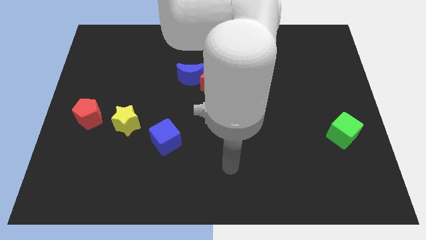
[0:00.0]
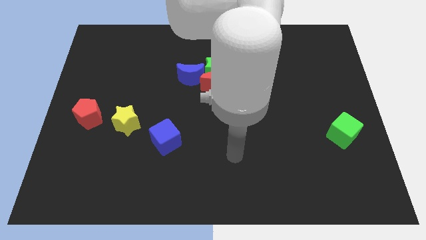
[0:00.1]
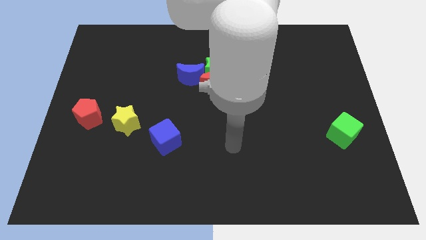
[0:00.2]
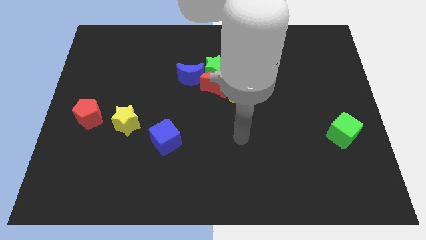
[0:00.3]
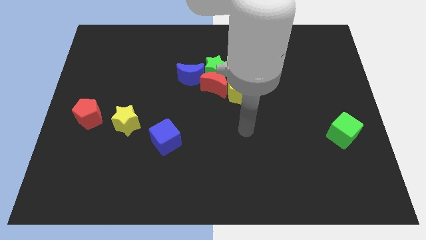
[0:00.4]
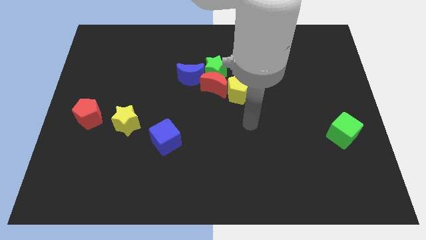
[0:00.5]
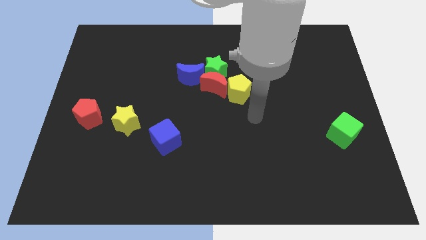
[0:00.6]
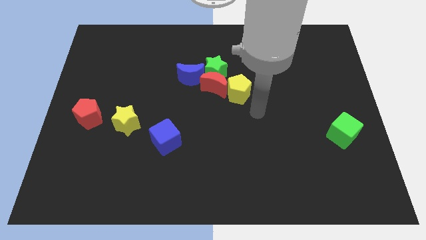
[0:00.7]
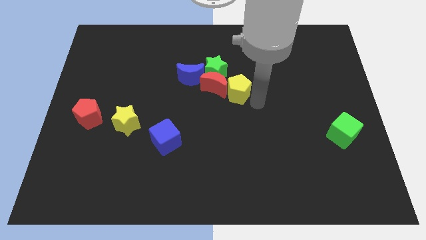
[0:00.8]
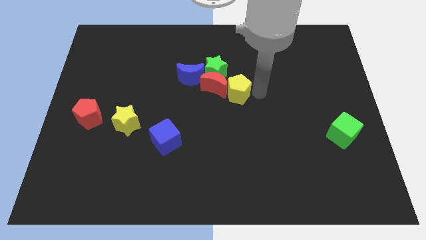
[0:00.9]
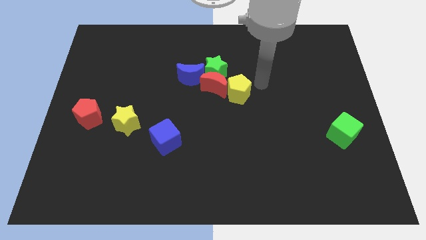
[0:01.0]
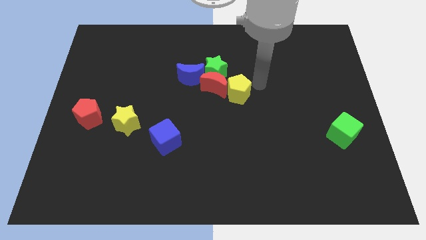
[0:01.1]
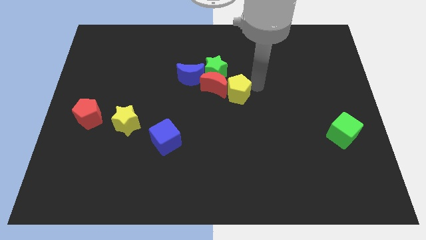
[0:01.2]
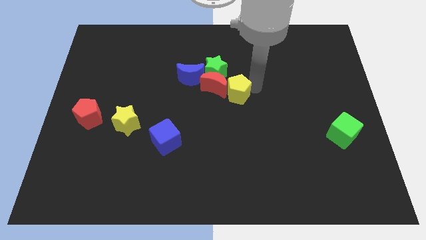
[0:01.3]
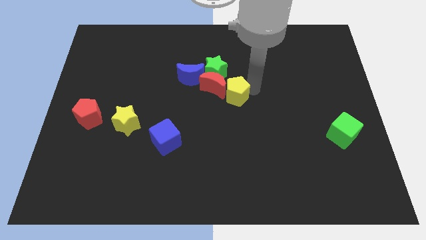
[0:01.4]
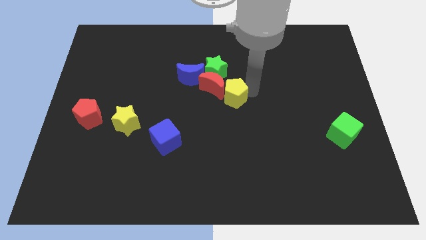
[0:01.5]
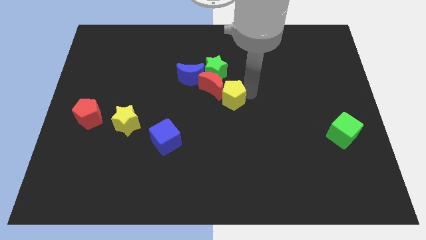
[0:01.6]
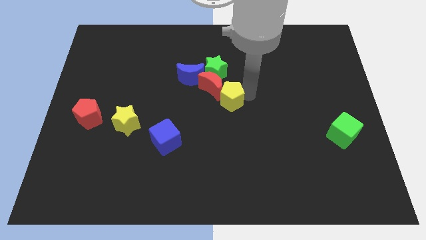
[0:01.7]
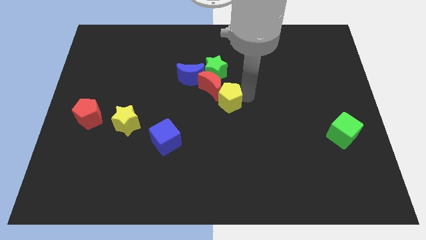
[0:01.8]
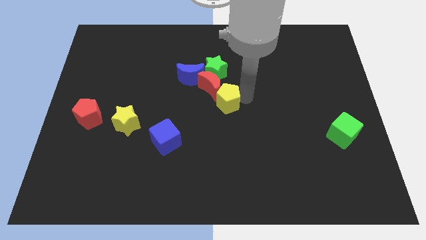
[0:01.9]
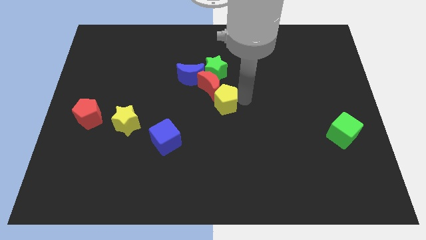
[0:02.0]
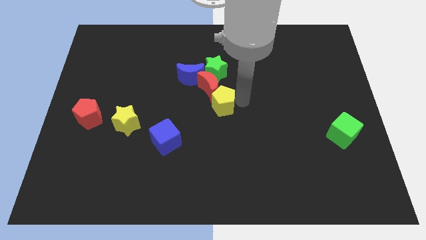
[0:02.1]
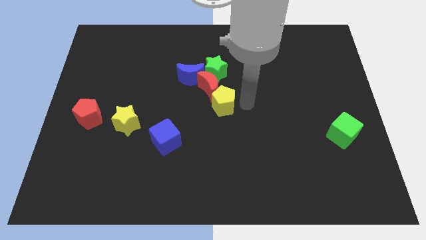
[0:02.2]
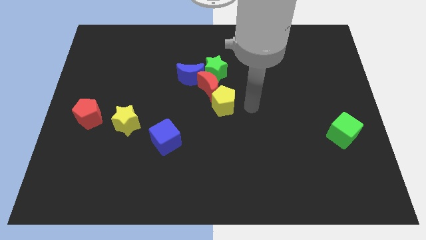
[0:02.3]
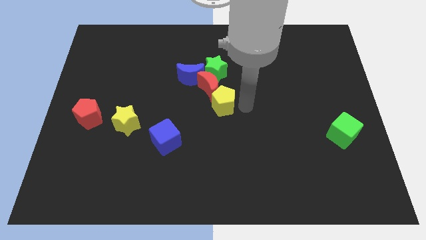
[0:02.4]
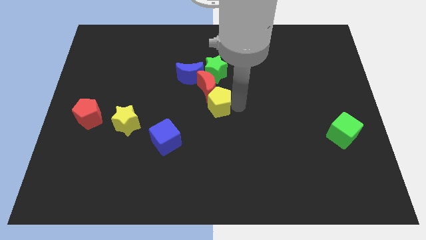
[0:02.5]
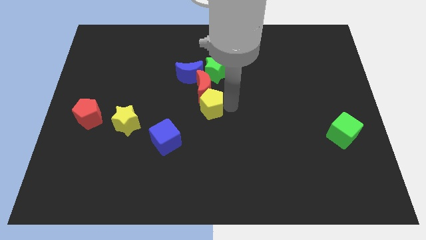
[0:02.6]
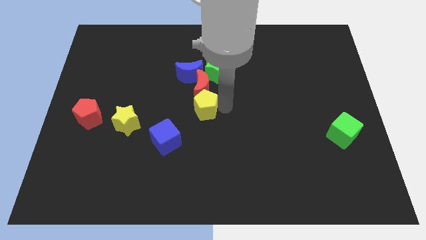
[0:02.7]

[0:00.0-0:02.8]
move the yellow pentagon a little to the left

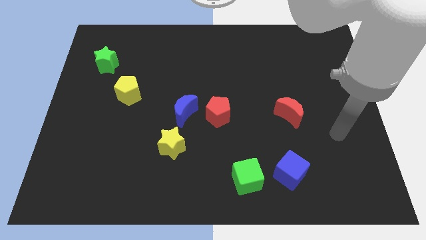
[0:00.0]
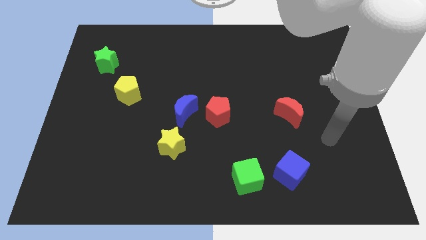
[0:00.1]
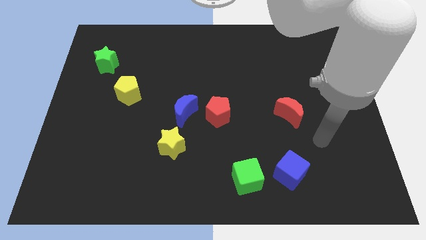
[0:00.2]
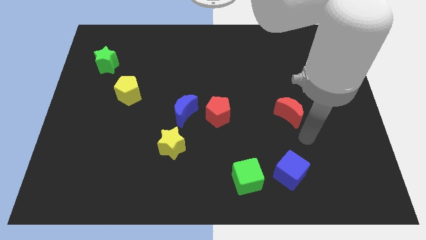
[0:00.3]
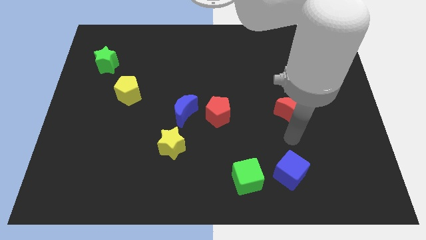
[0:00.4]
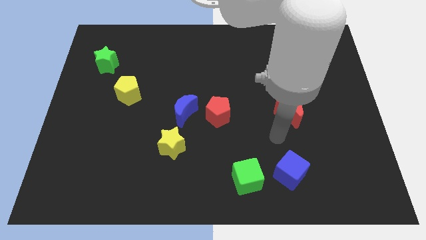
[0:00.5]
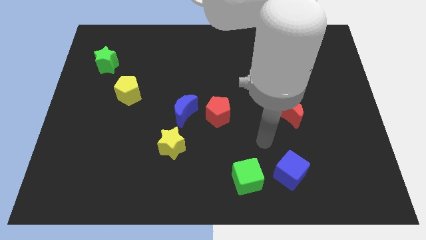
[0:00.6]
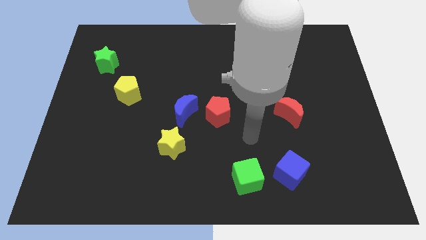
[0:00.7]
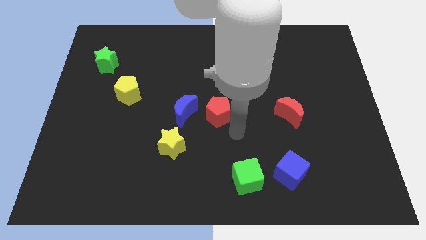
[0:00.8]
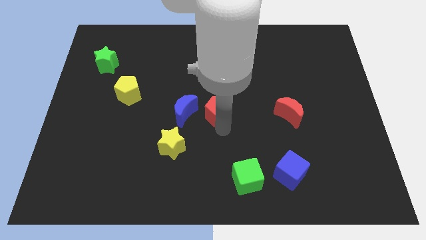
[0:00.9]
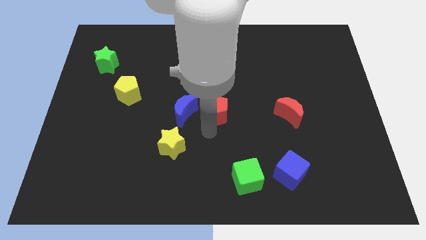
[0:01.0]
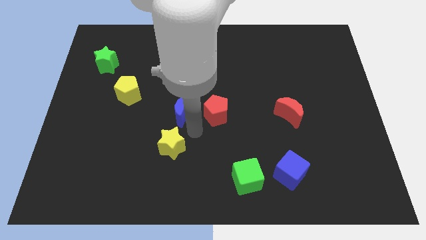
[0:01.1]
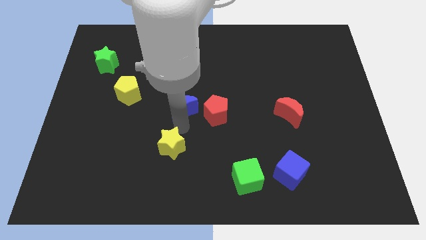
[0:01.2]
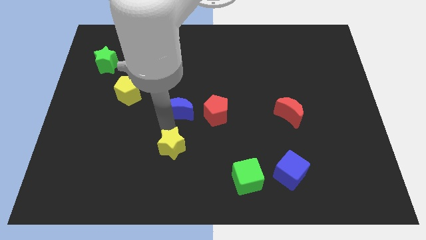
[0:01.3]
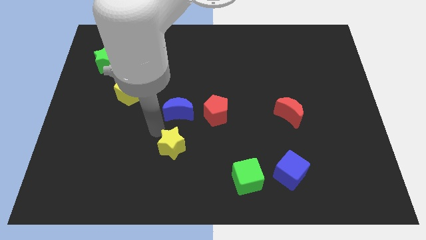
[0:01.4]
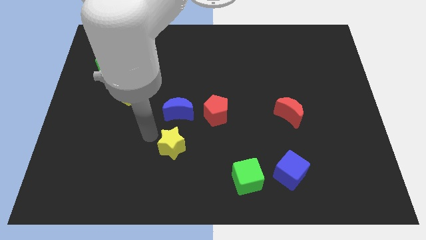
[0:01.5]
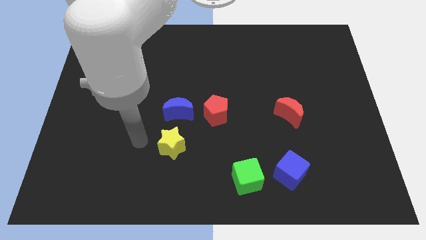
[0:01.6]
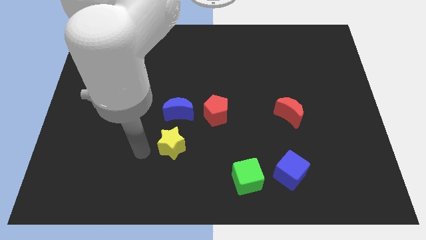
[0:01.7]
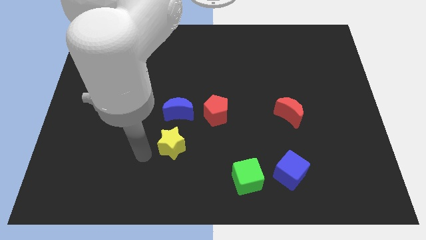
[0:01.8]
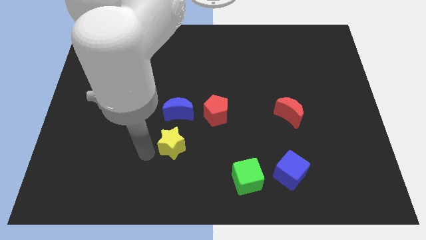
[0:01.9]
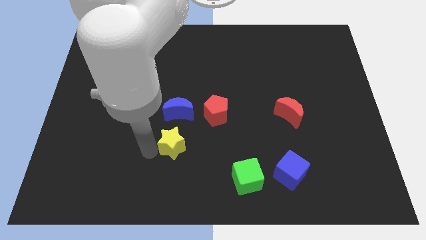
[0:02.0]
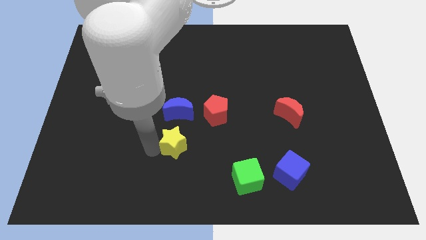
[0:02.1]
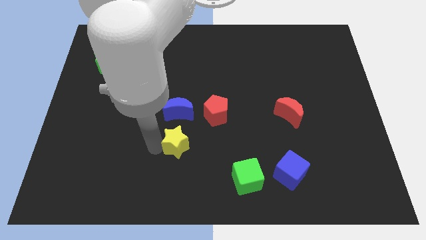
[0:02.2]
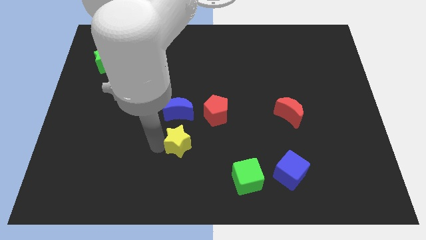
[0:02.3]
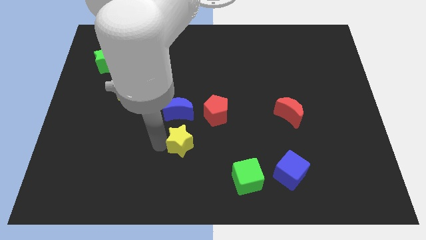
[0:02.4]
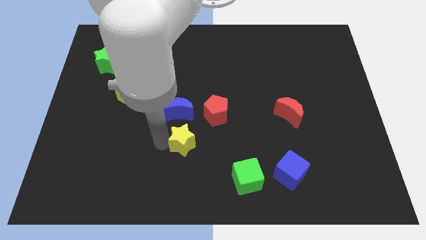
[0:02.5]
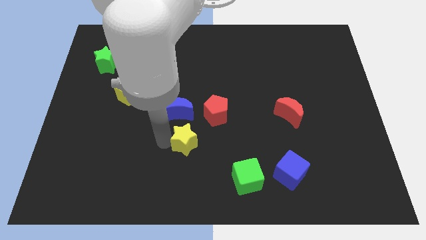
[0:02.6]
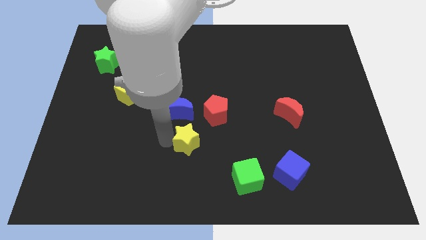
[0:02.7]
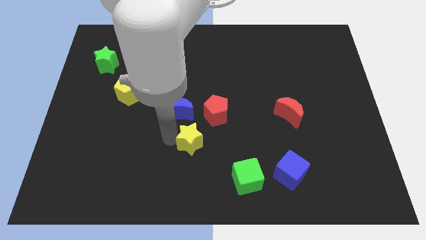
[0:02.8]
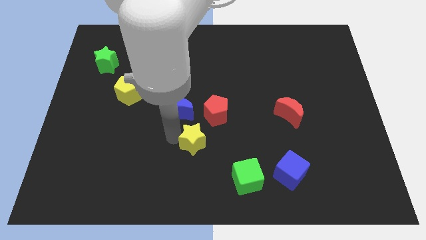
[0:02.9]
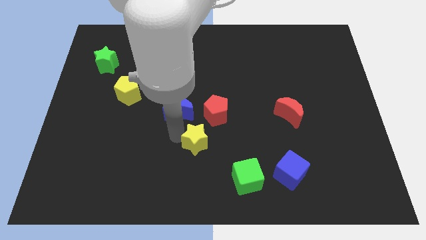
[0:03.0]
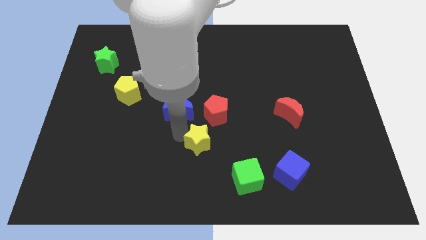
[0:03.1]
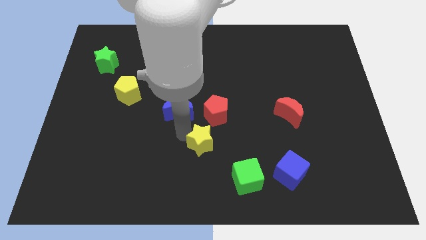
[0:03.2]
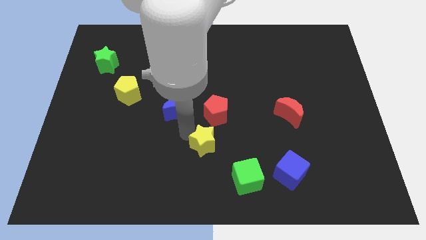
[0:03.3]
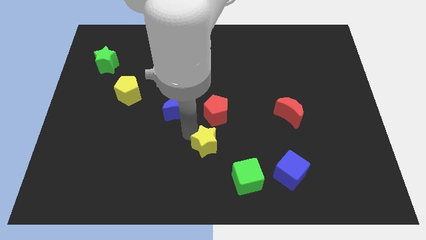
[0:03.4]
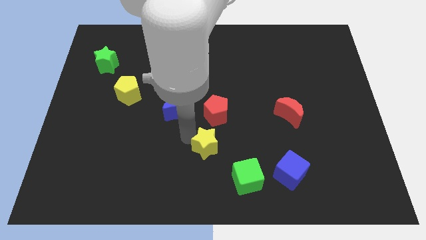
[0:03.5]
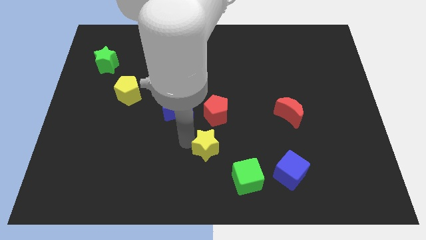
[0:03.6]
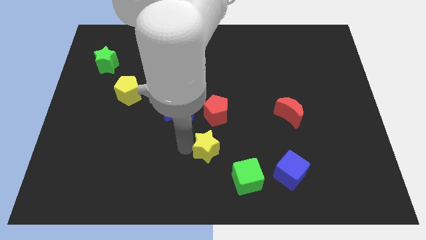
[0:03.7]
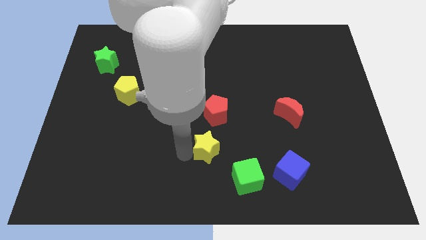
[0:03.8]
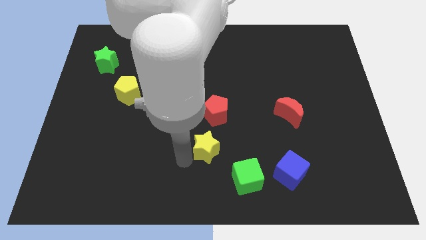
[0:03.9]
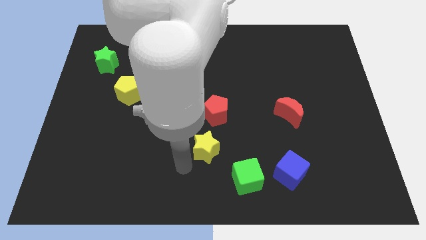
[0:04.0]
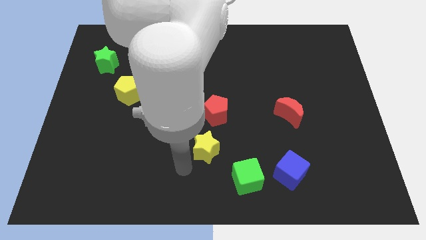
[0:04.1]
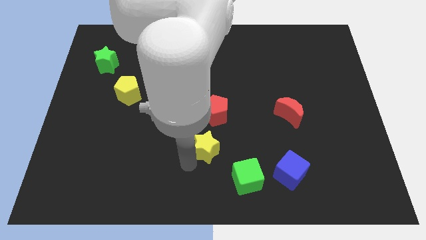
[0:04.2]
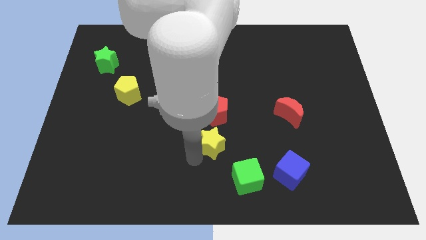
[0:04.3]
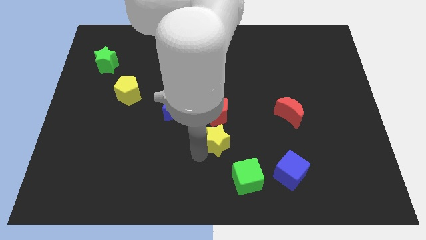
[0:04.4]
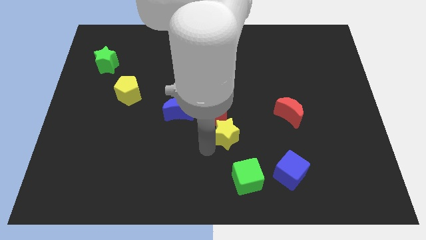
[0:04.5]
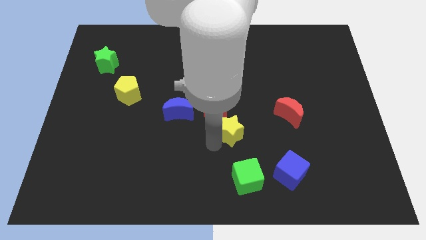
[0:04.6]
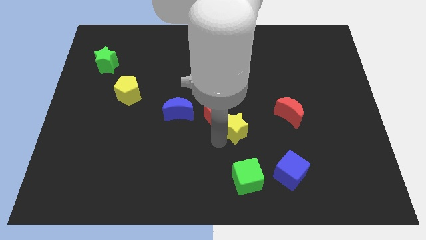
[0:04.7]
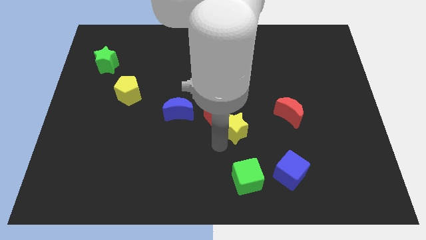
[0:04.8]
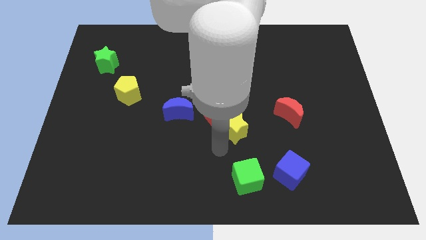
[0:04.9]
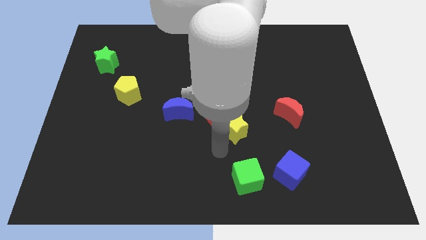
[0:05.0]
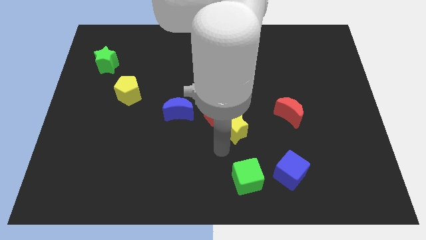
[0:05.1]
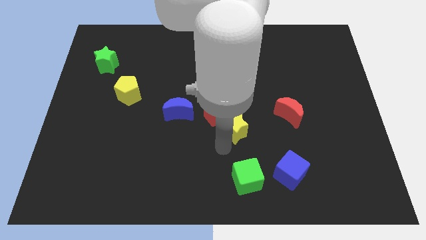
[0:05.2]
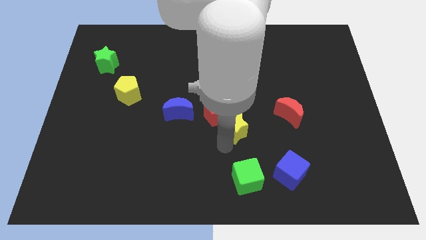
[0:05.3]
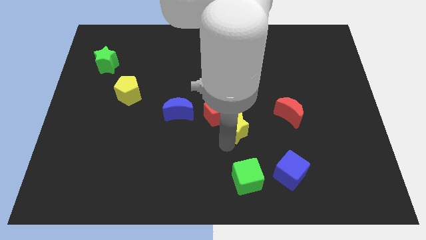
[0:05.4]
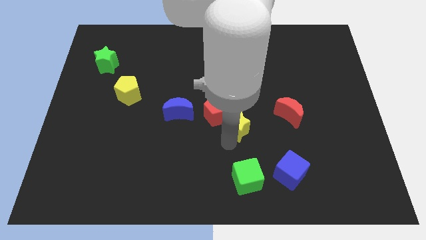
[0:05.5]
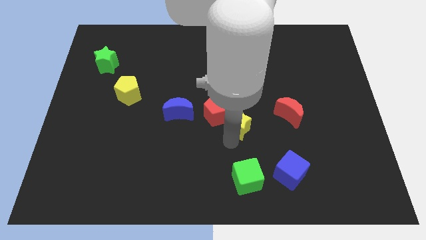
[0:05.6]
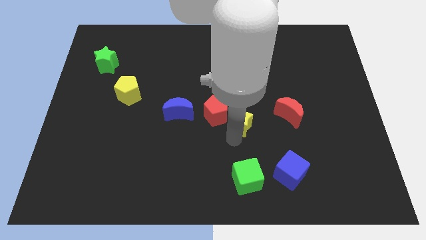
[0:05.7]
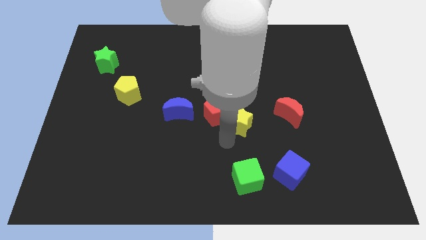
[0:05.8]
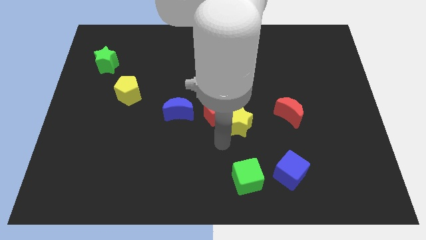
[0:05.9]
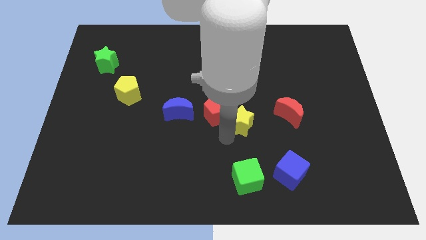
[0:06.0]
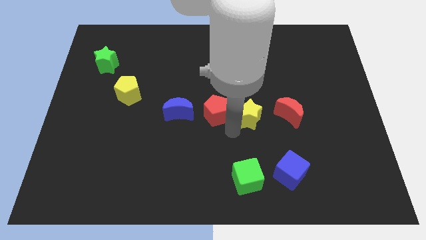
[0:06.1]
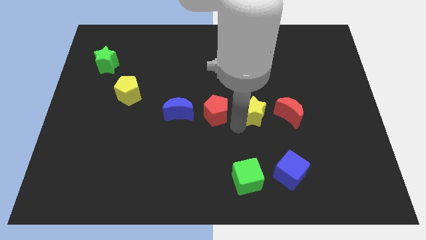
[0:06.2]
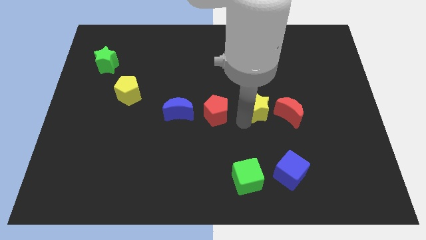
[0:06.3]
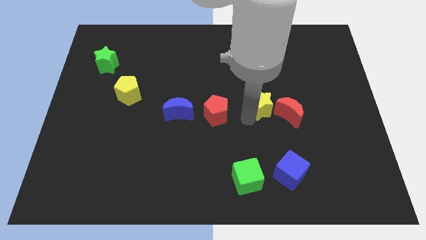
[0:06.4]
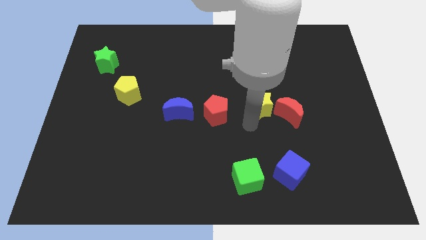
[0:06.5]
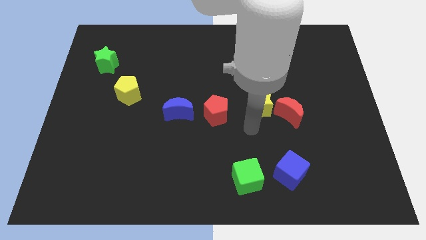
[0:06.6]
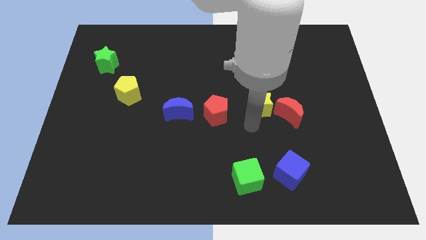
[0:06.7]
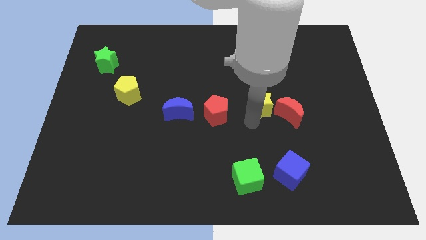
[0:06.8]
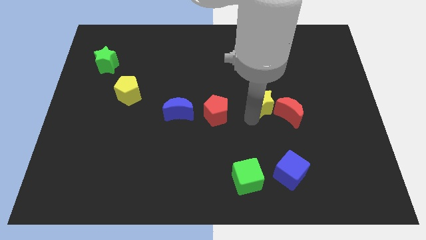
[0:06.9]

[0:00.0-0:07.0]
push the yellow star upwards and to the right diagonally
